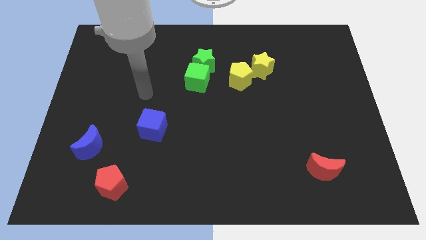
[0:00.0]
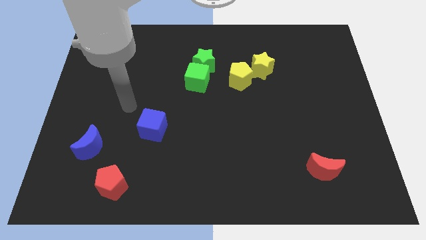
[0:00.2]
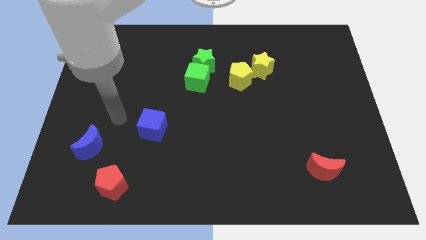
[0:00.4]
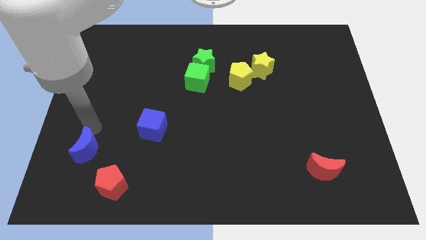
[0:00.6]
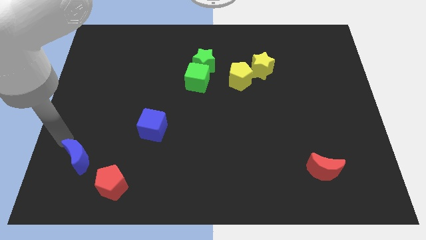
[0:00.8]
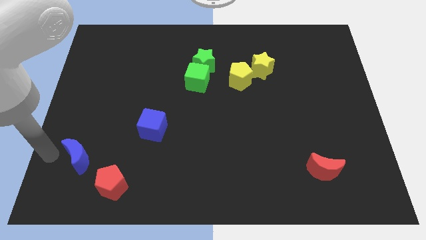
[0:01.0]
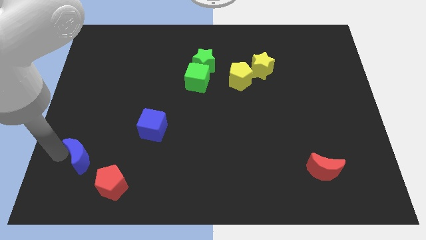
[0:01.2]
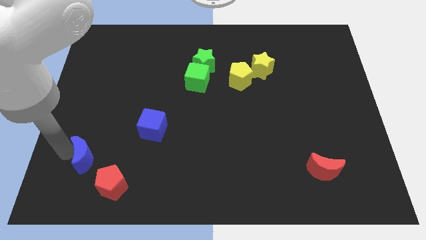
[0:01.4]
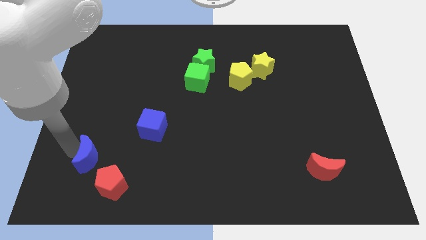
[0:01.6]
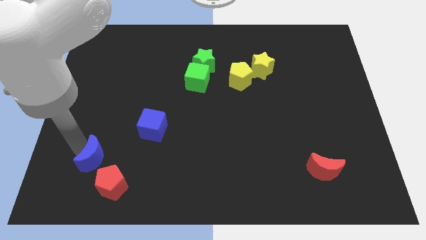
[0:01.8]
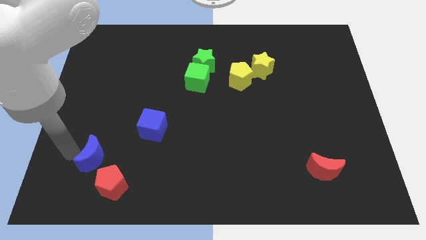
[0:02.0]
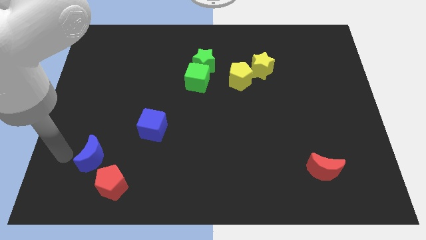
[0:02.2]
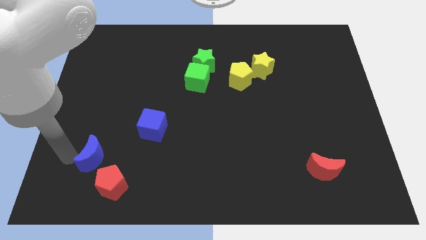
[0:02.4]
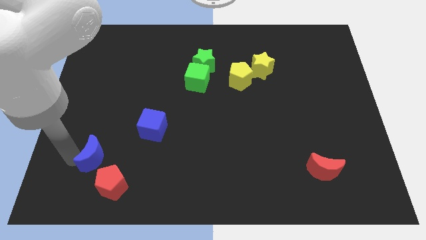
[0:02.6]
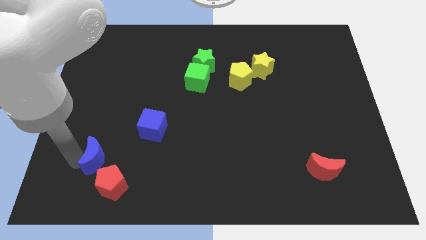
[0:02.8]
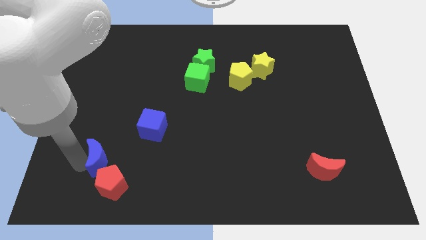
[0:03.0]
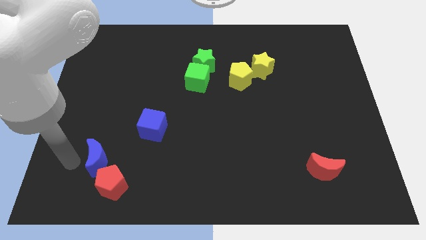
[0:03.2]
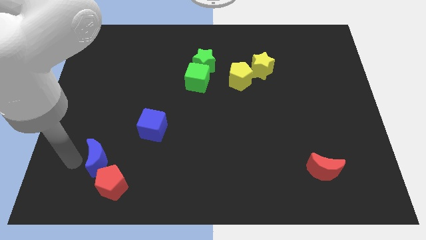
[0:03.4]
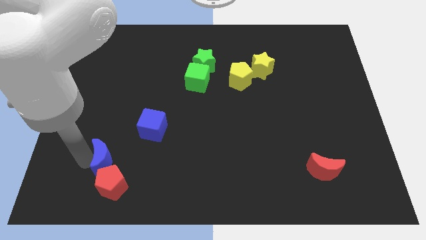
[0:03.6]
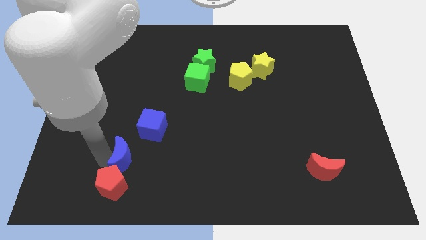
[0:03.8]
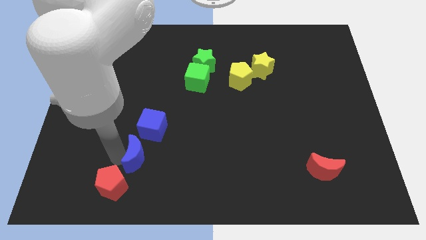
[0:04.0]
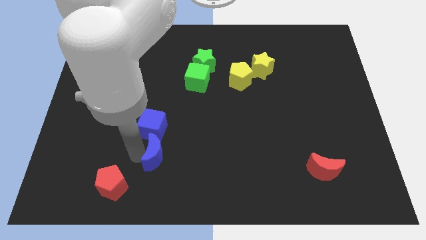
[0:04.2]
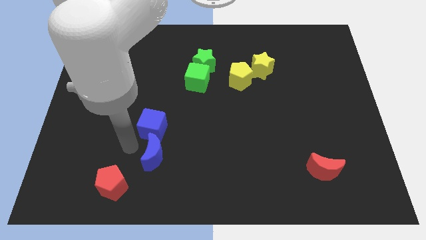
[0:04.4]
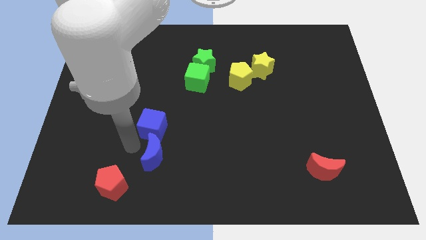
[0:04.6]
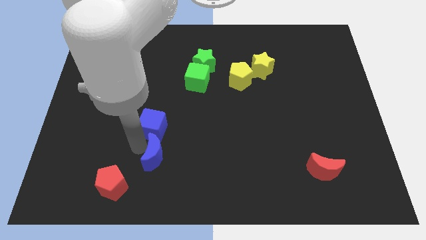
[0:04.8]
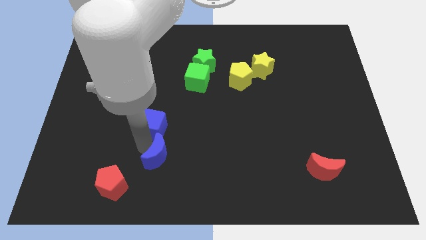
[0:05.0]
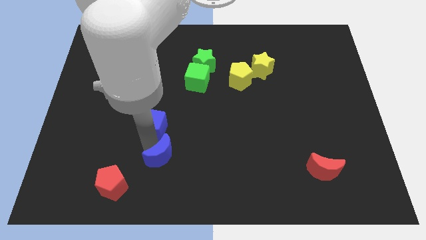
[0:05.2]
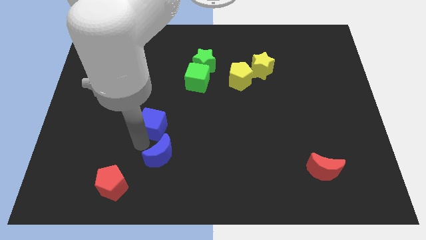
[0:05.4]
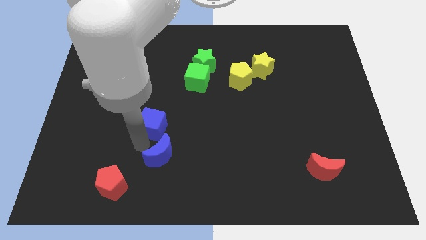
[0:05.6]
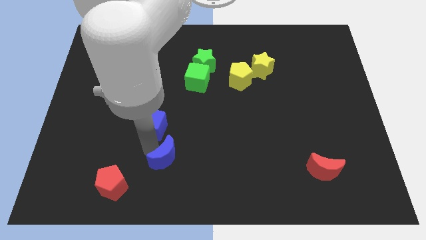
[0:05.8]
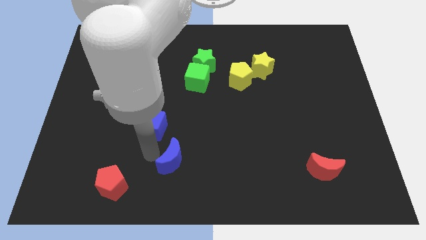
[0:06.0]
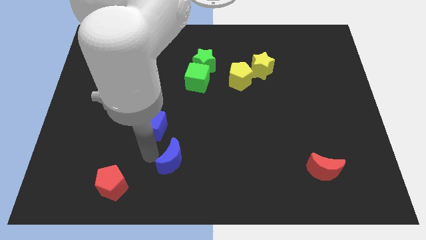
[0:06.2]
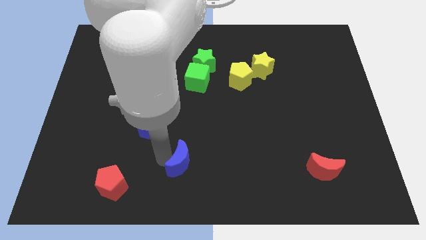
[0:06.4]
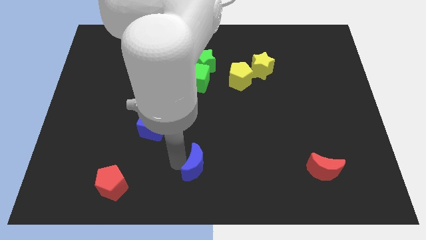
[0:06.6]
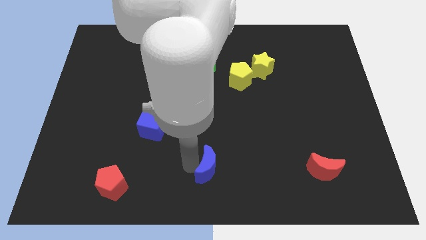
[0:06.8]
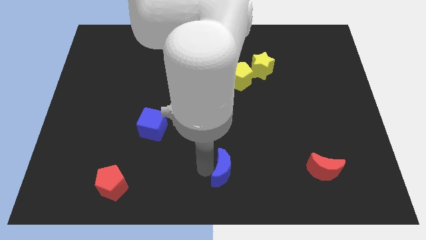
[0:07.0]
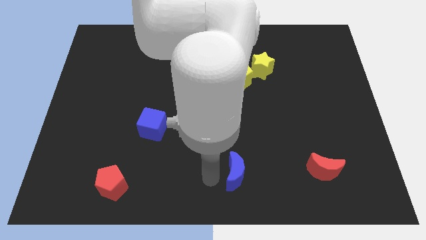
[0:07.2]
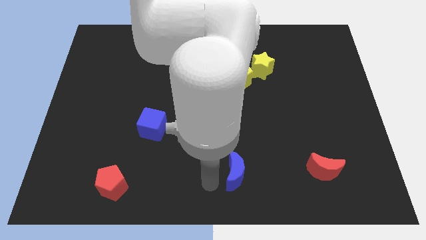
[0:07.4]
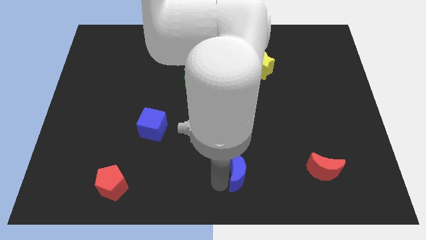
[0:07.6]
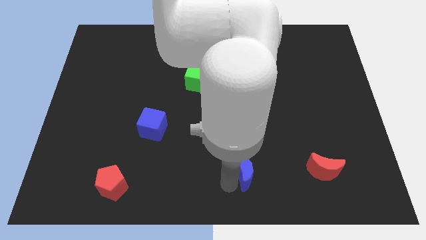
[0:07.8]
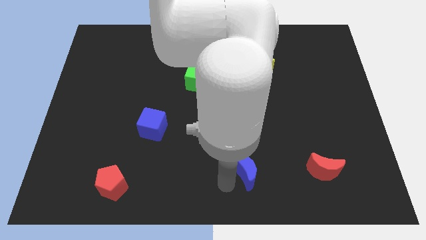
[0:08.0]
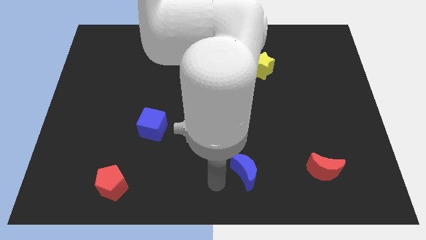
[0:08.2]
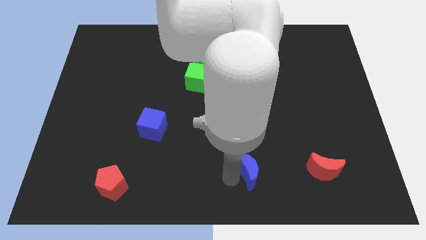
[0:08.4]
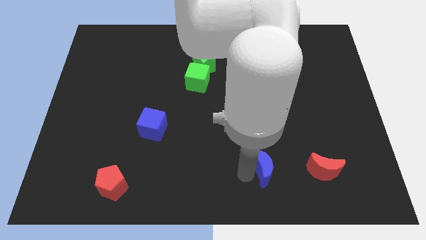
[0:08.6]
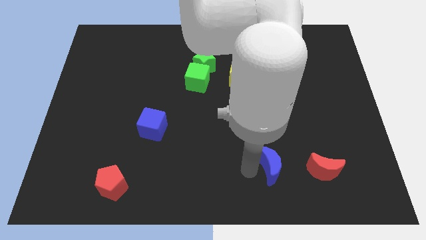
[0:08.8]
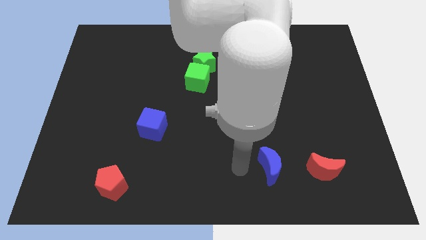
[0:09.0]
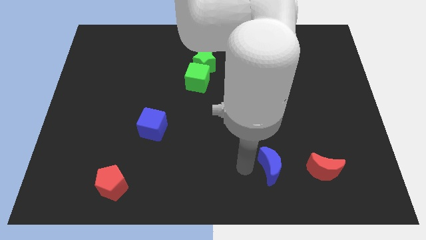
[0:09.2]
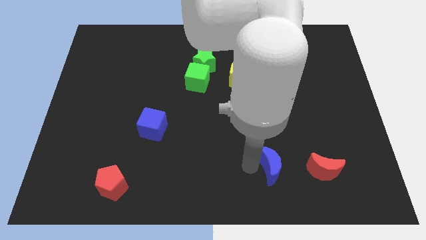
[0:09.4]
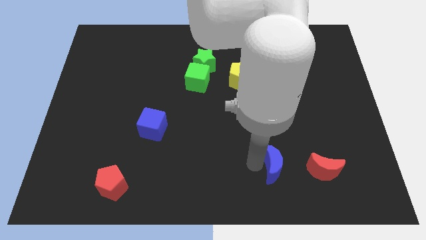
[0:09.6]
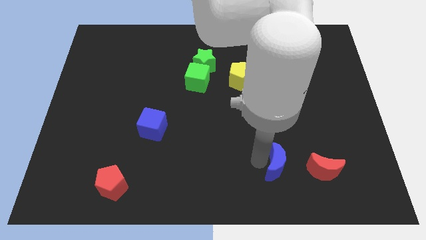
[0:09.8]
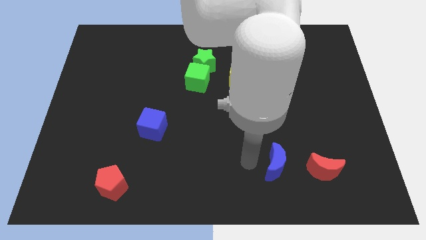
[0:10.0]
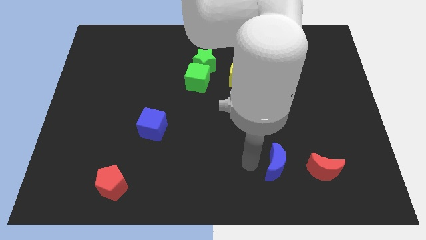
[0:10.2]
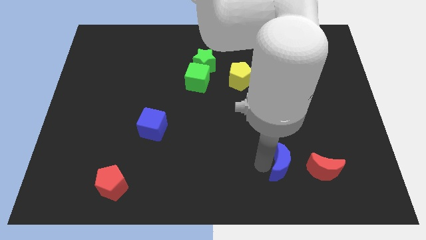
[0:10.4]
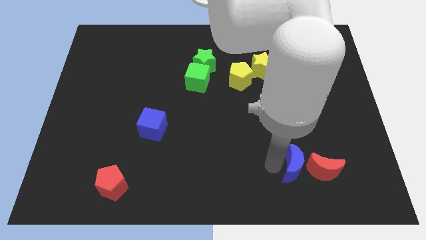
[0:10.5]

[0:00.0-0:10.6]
move the blue moon close to the red moon

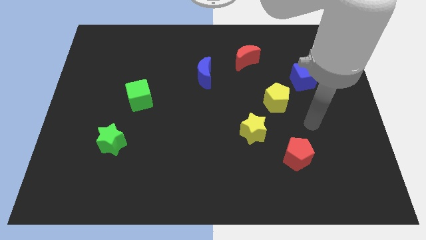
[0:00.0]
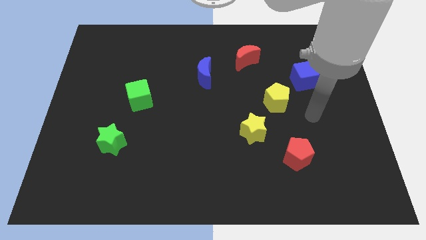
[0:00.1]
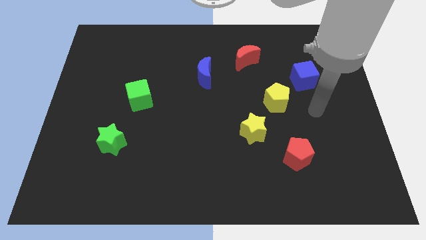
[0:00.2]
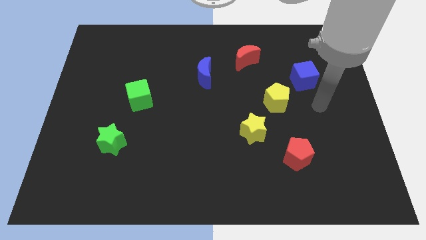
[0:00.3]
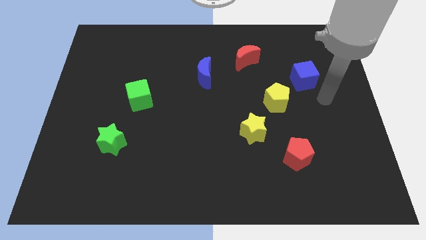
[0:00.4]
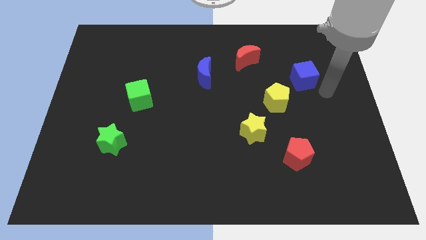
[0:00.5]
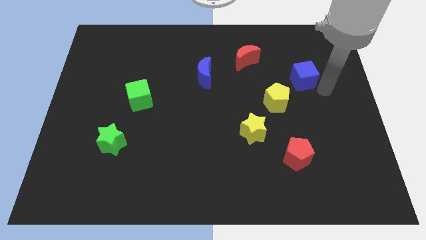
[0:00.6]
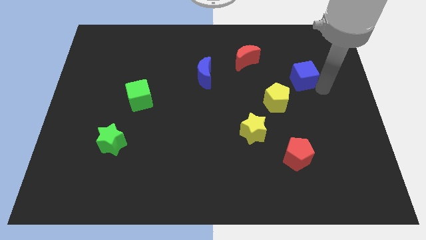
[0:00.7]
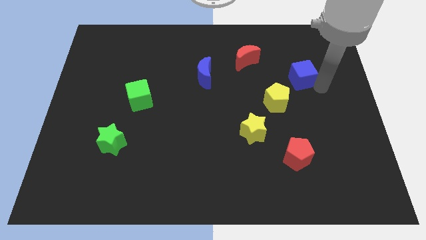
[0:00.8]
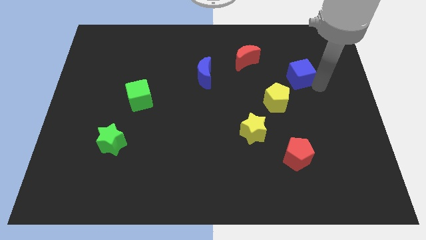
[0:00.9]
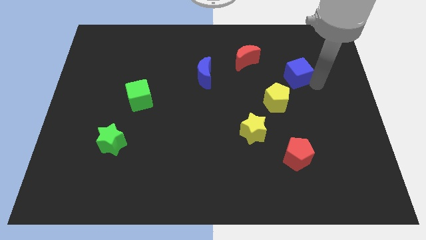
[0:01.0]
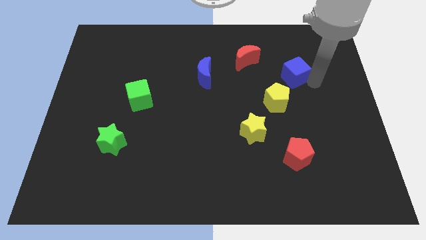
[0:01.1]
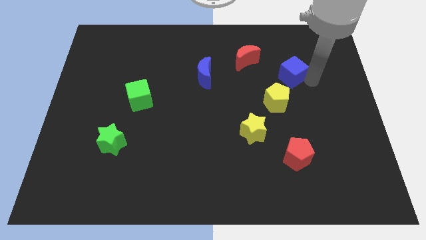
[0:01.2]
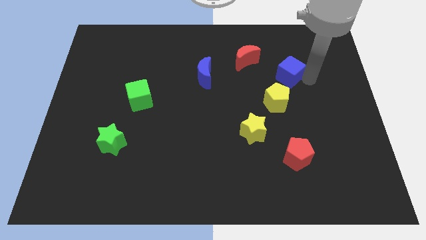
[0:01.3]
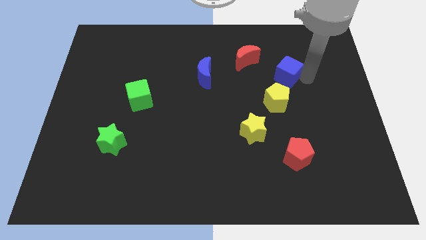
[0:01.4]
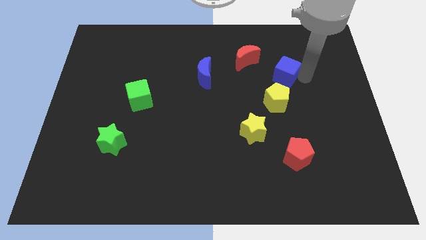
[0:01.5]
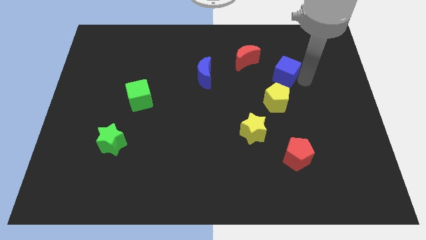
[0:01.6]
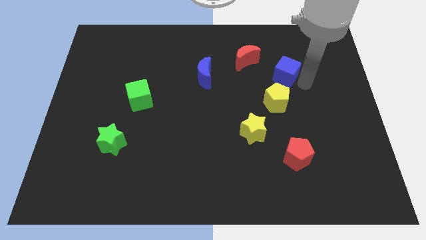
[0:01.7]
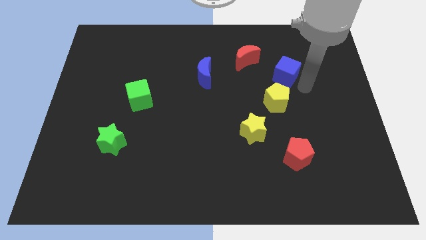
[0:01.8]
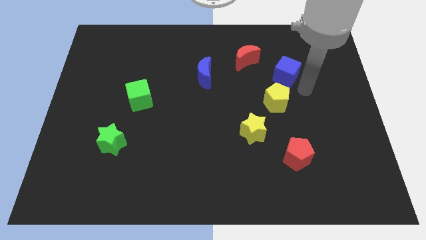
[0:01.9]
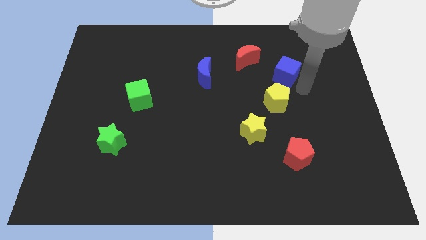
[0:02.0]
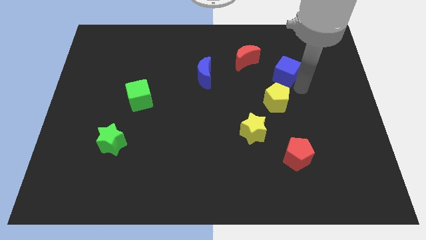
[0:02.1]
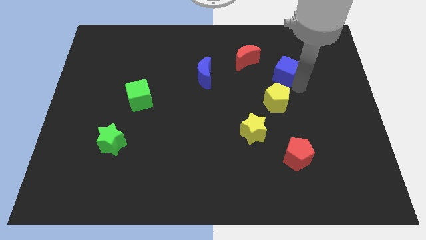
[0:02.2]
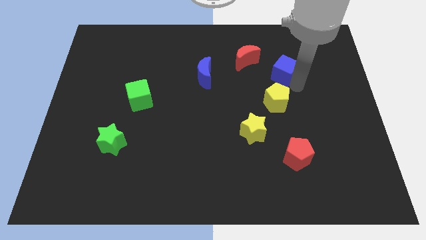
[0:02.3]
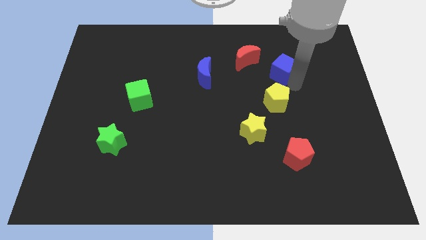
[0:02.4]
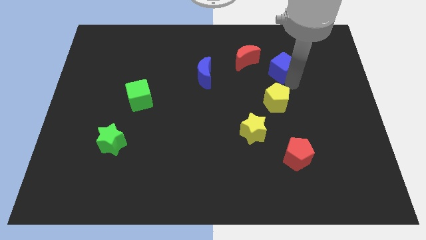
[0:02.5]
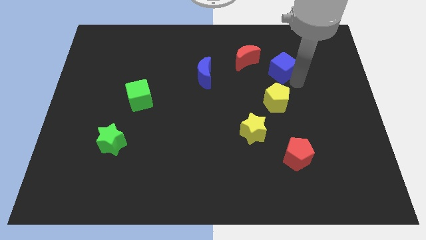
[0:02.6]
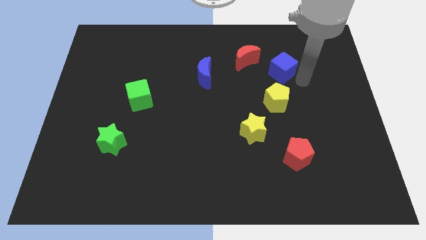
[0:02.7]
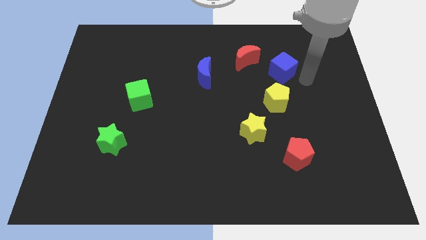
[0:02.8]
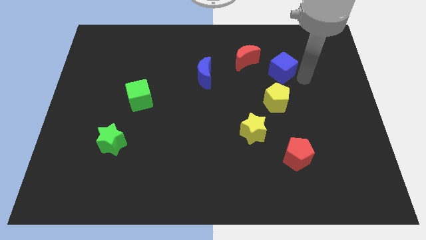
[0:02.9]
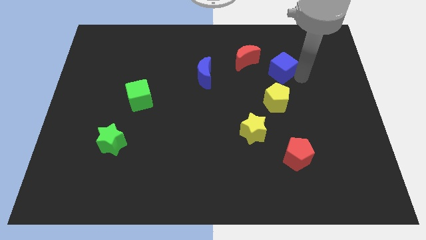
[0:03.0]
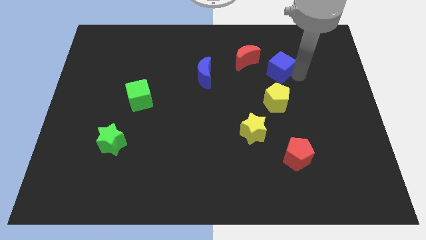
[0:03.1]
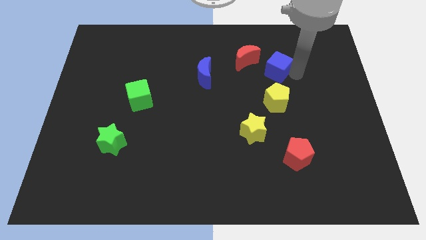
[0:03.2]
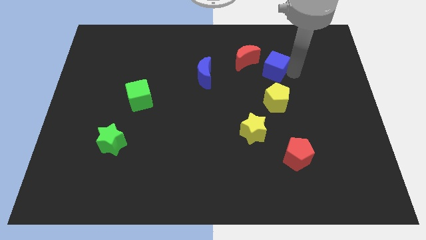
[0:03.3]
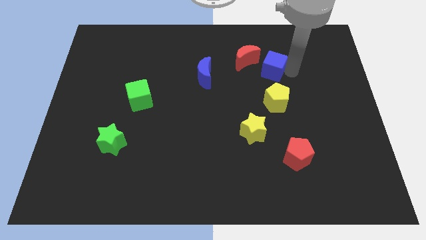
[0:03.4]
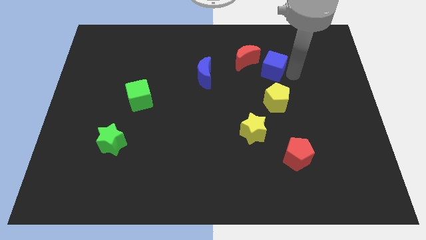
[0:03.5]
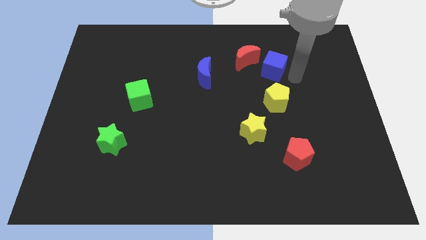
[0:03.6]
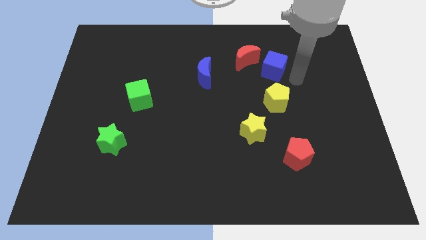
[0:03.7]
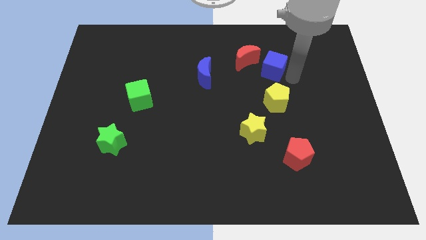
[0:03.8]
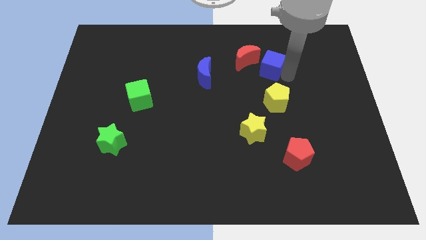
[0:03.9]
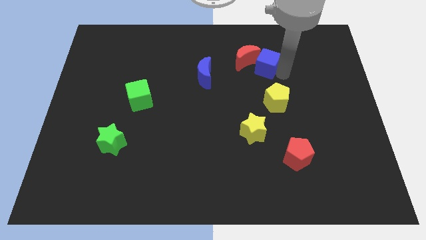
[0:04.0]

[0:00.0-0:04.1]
put the blue cube close to the red moon
